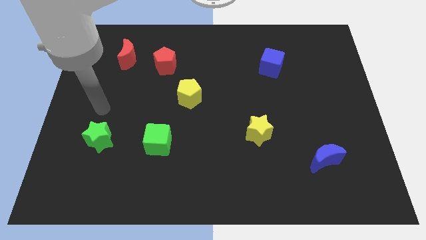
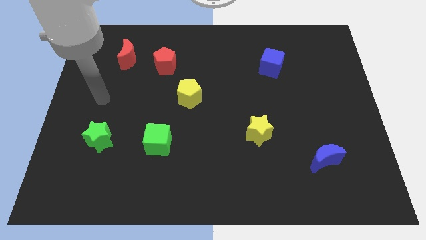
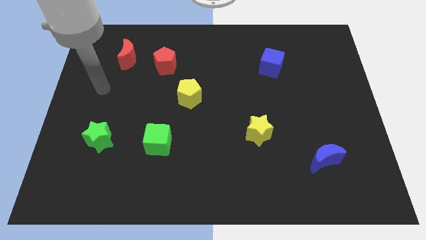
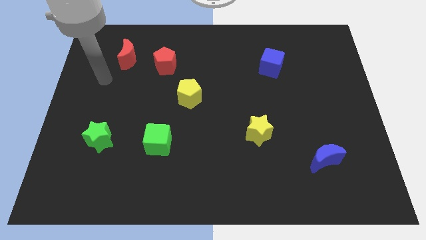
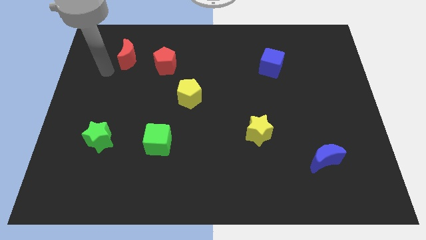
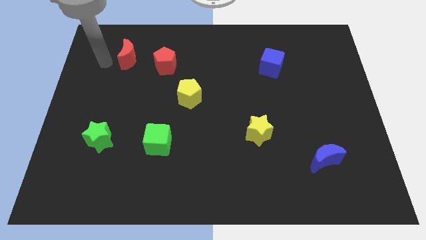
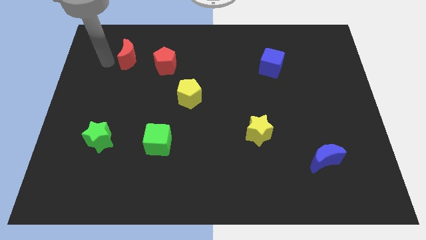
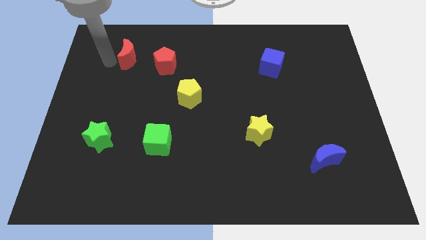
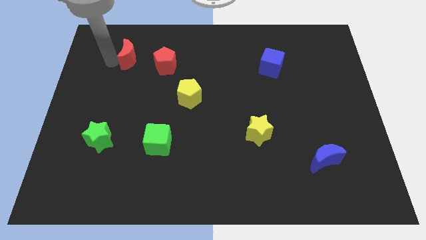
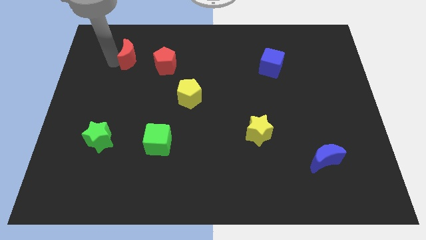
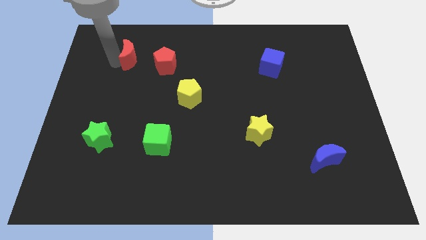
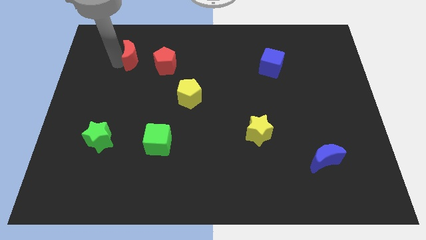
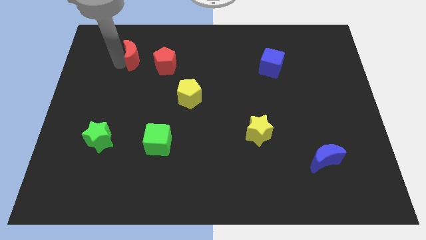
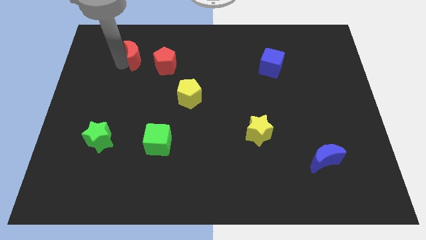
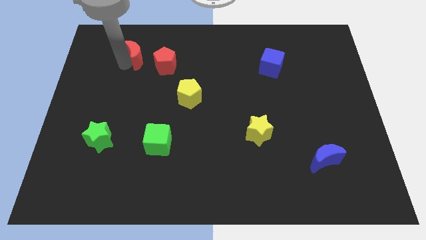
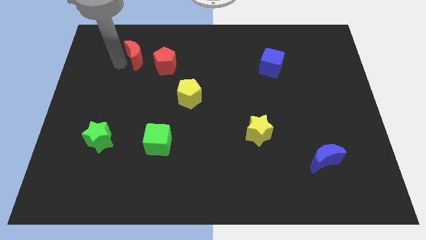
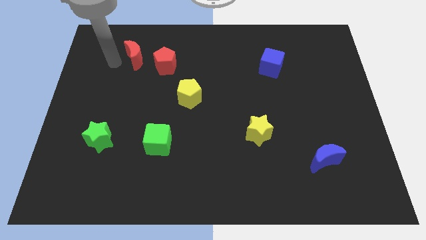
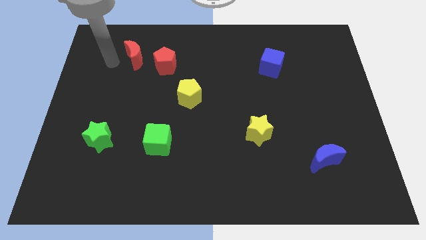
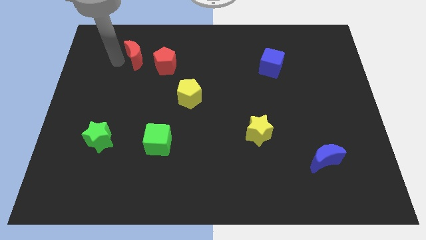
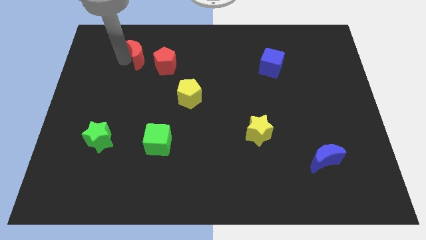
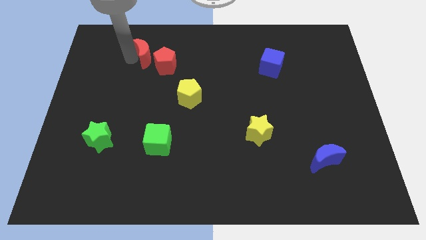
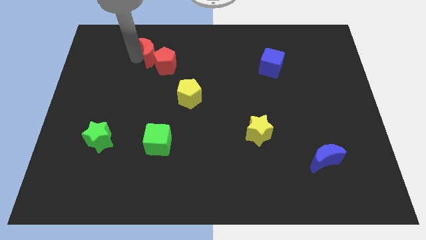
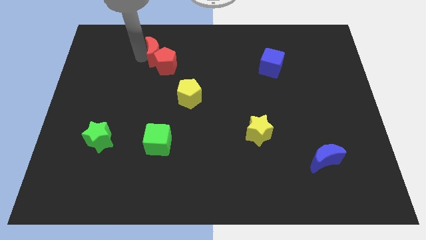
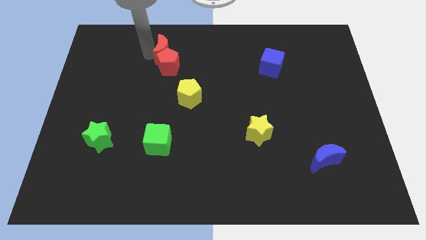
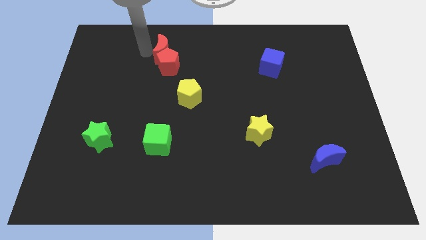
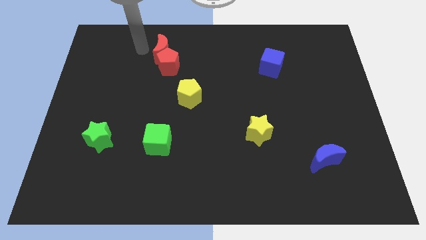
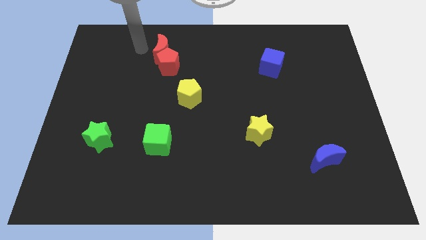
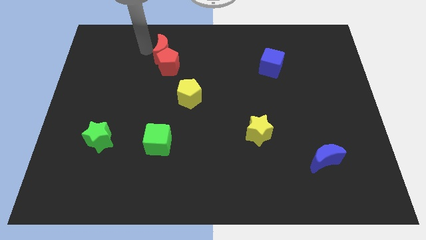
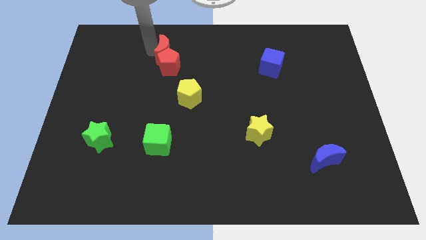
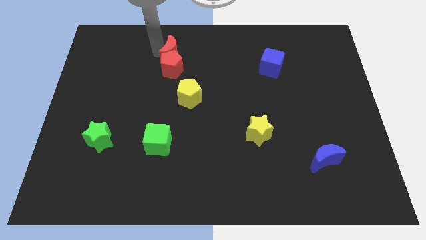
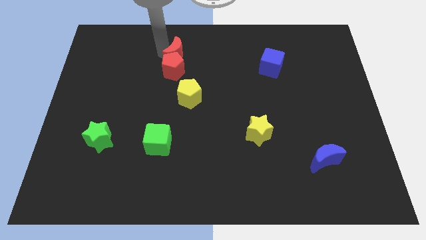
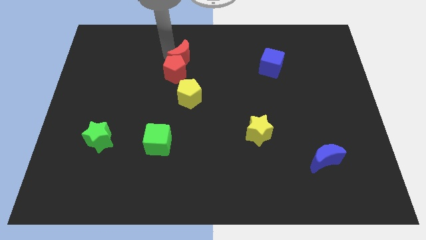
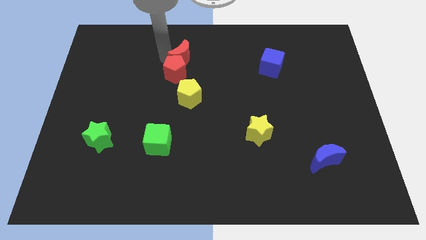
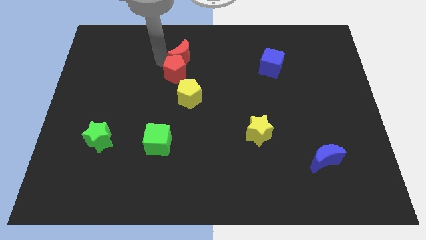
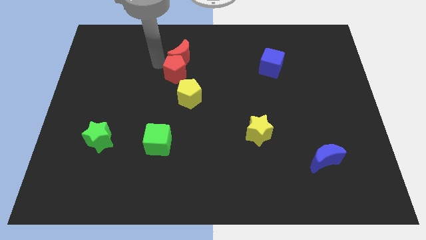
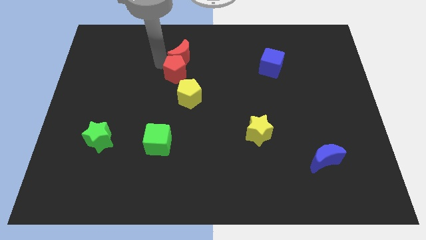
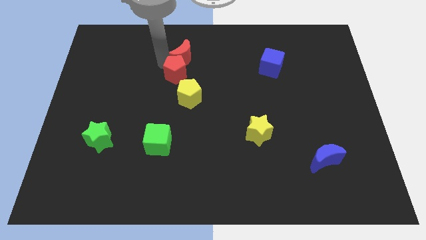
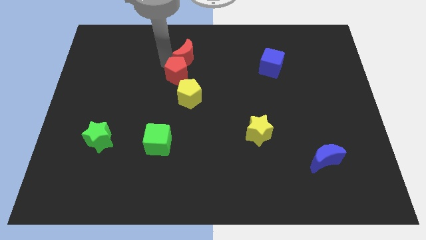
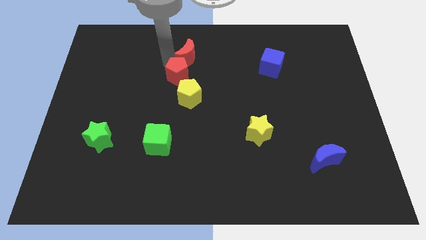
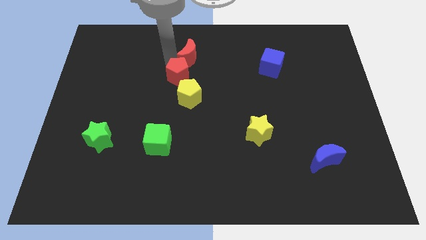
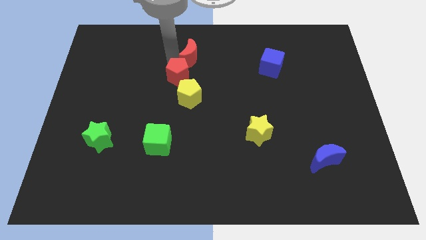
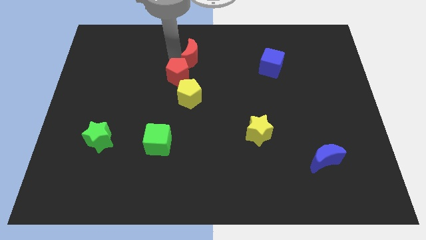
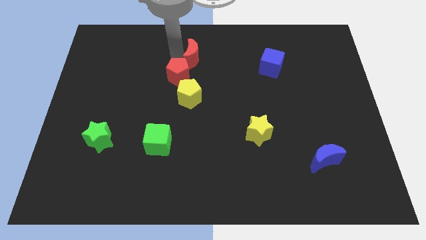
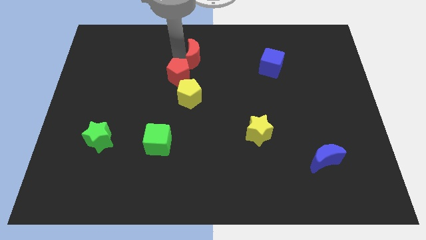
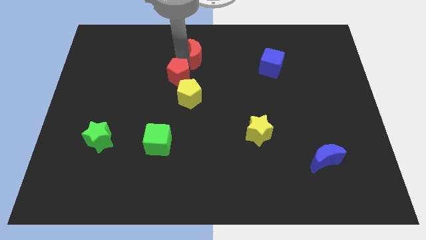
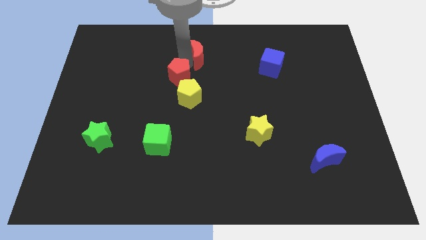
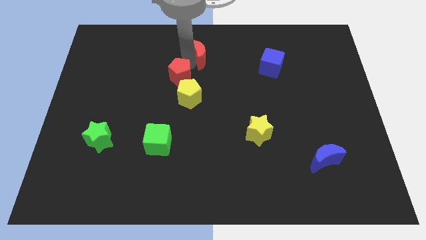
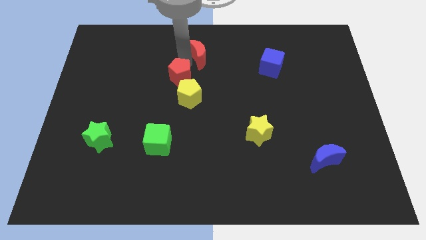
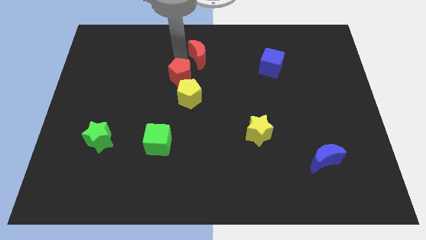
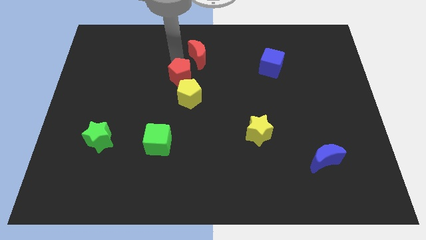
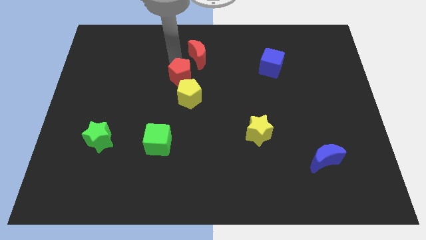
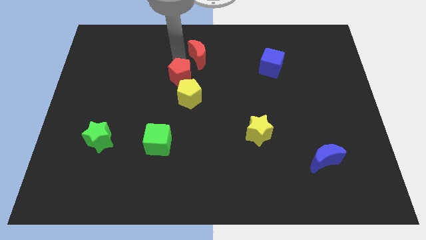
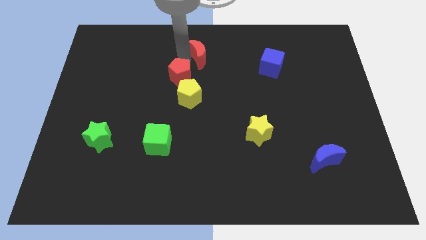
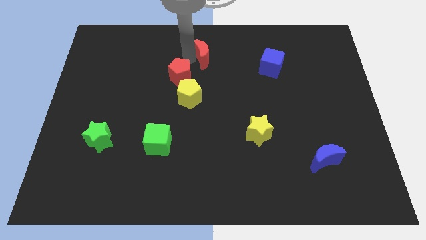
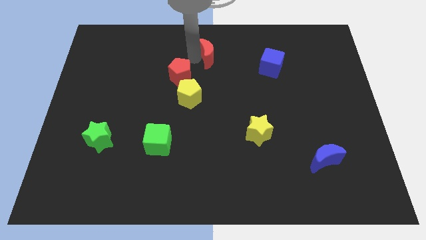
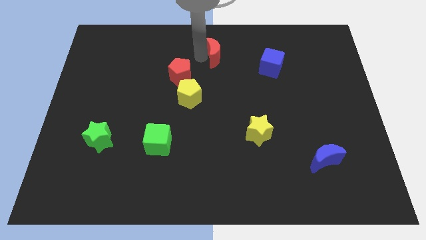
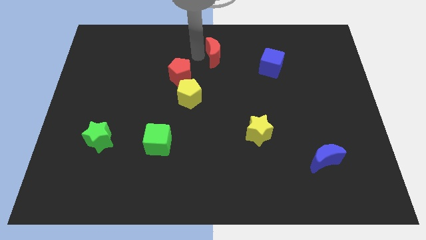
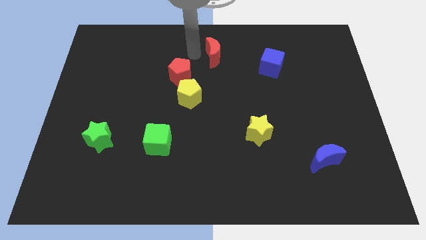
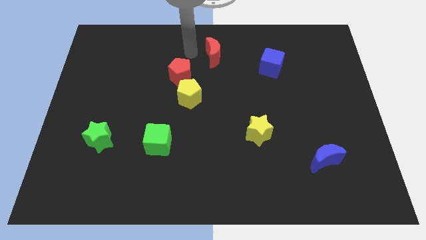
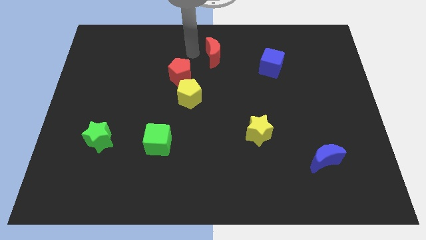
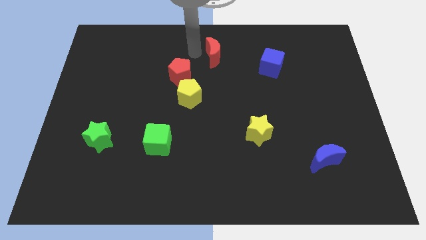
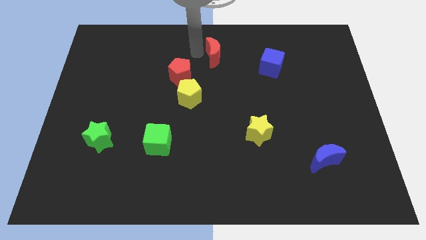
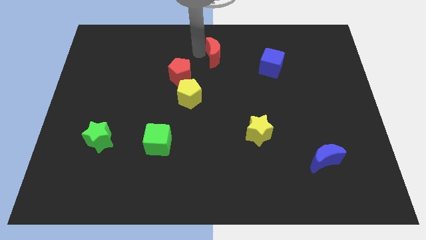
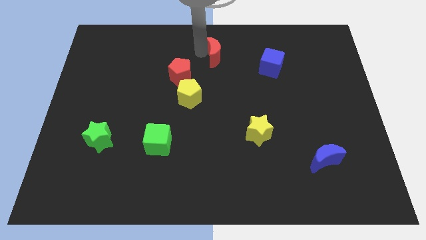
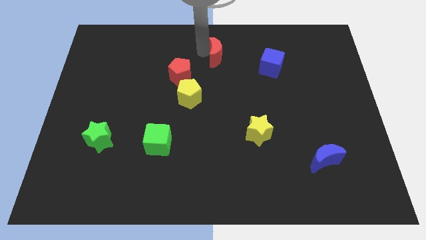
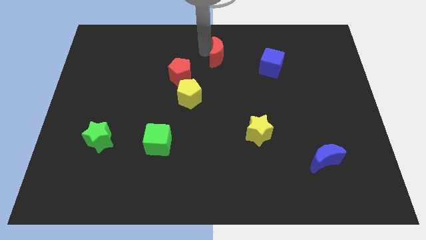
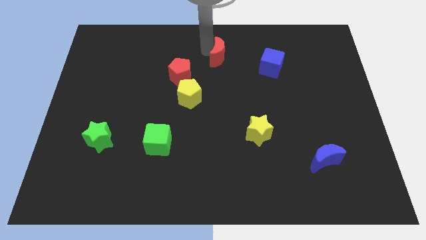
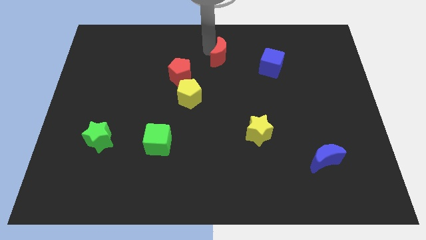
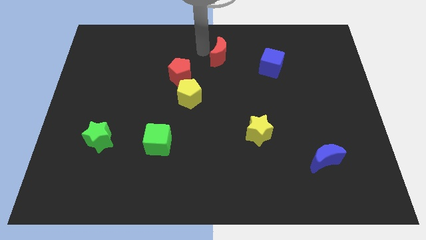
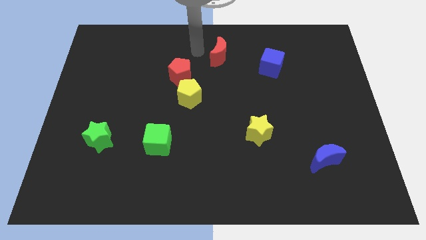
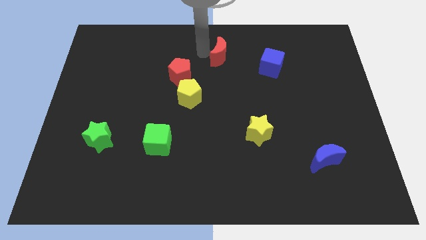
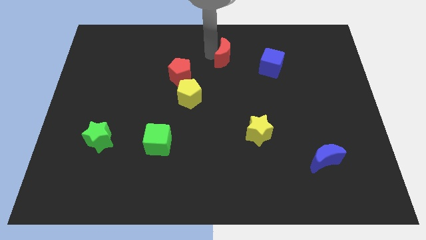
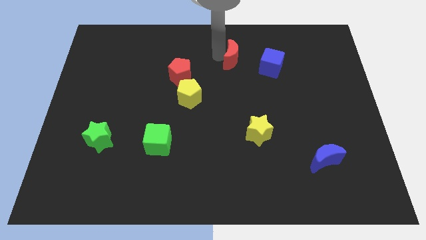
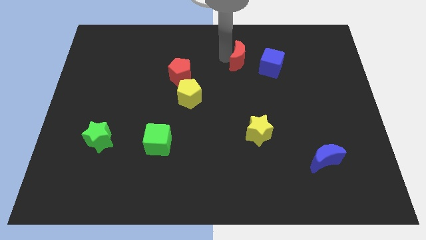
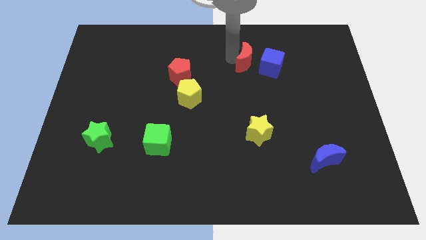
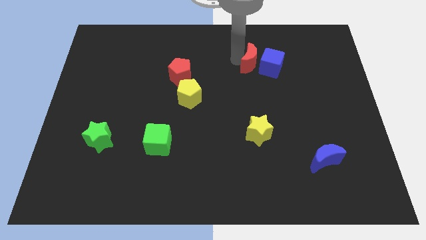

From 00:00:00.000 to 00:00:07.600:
put the red moon towards the blue cube
